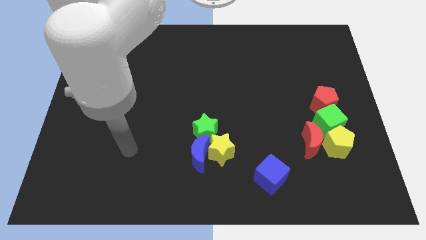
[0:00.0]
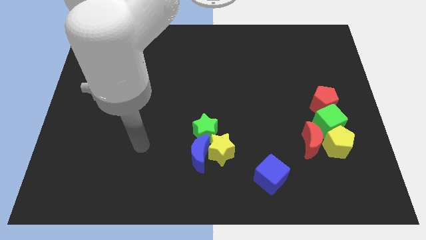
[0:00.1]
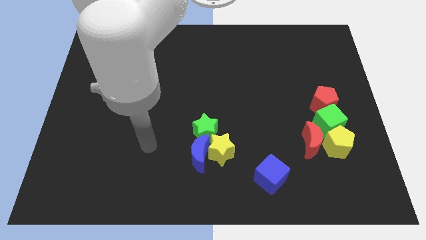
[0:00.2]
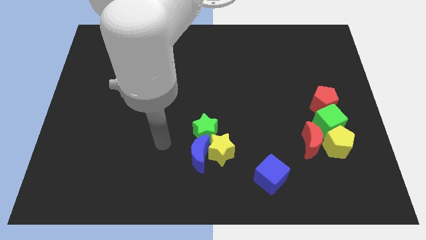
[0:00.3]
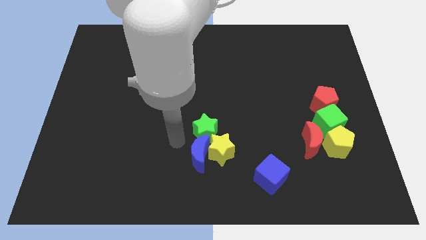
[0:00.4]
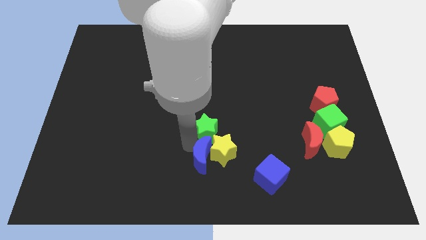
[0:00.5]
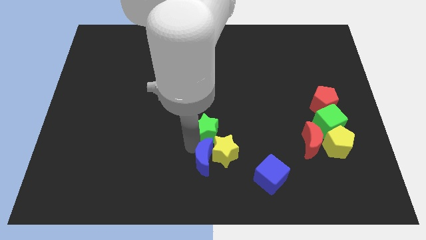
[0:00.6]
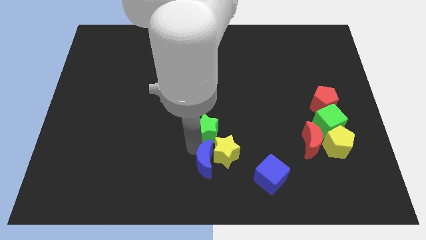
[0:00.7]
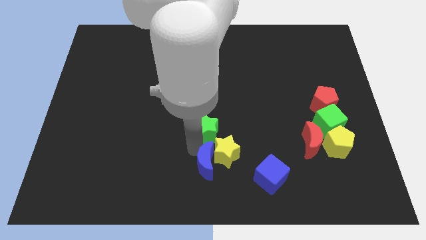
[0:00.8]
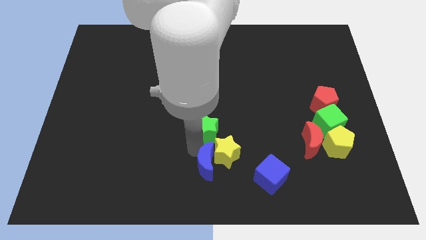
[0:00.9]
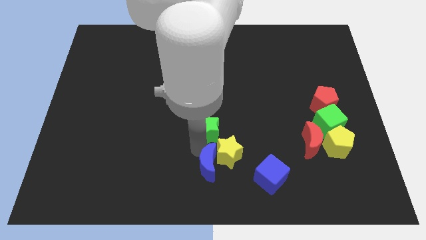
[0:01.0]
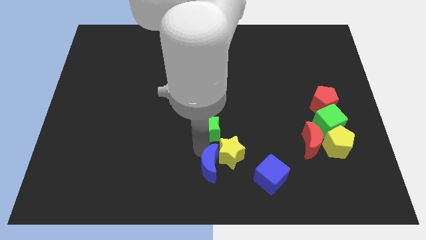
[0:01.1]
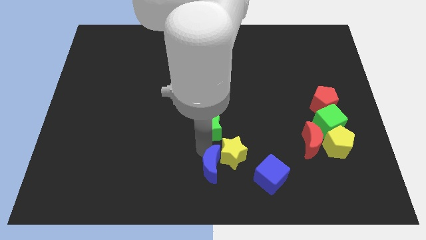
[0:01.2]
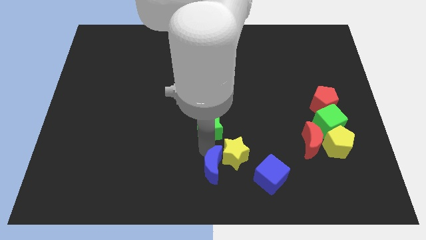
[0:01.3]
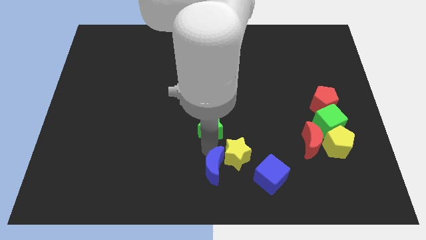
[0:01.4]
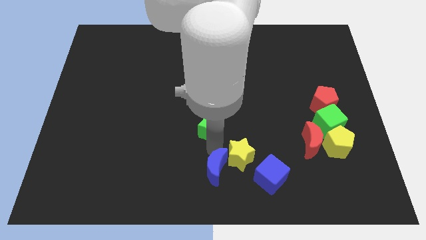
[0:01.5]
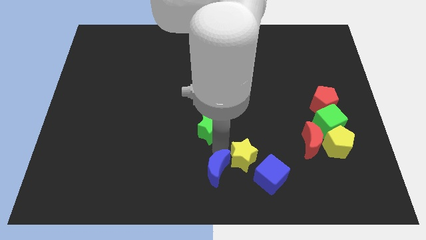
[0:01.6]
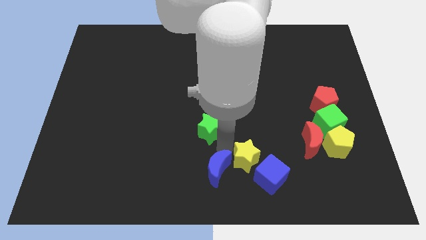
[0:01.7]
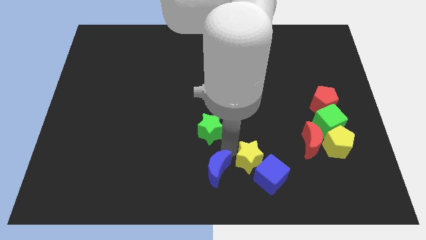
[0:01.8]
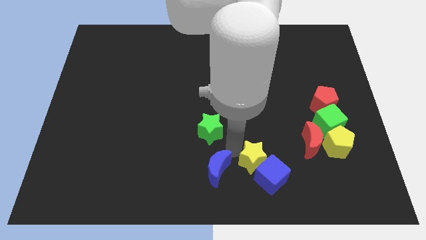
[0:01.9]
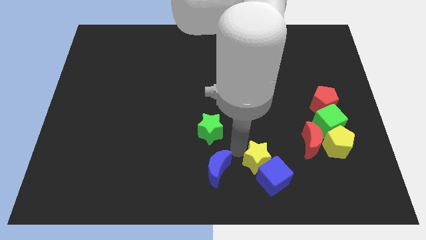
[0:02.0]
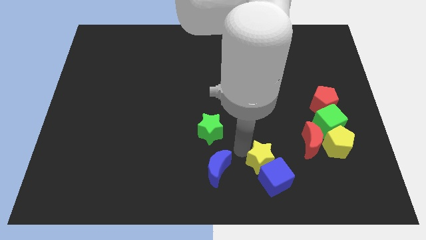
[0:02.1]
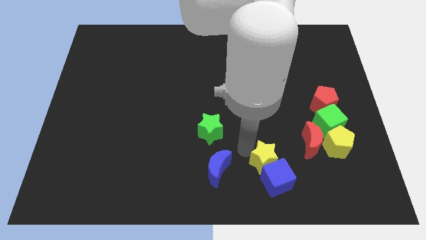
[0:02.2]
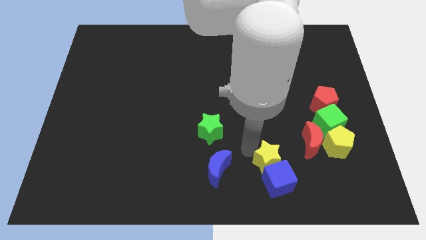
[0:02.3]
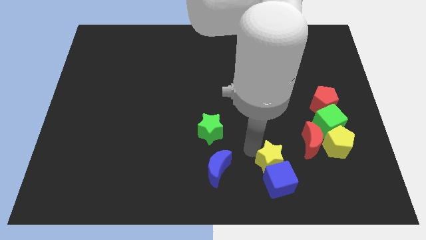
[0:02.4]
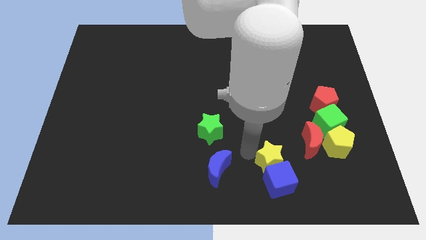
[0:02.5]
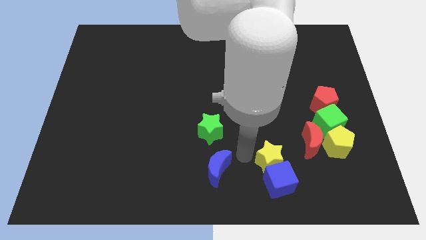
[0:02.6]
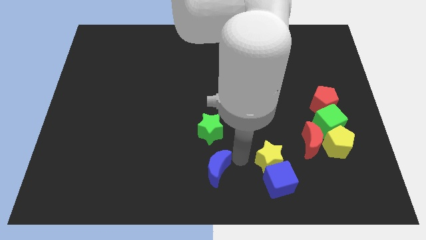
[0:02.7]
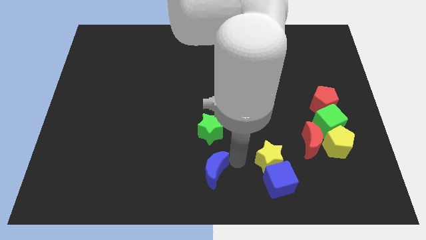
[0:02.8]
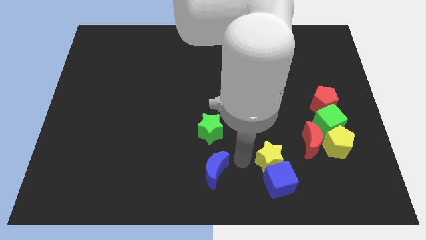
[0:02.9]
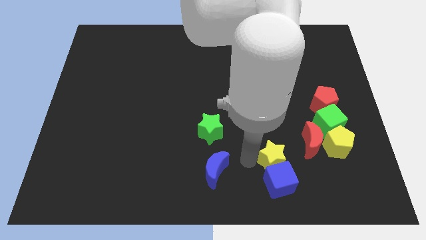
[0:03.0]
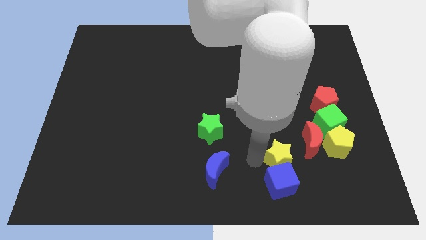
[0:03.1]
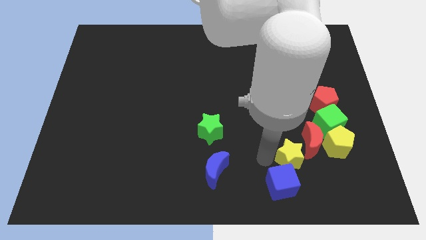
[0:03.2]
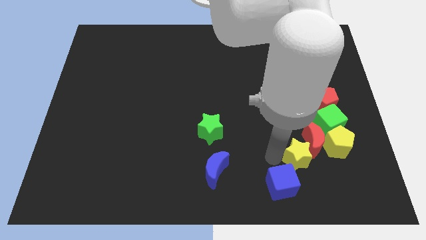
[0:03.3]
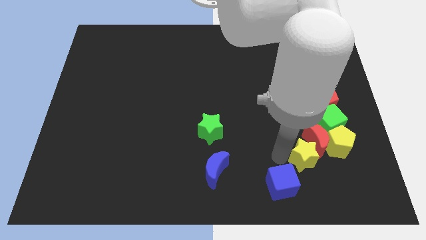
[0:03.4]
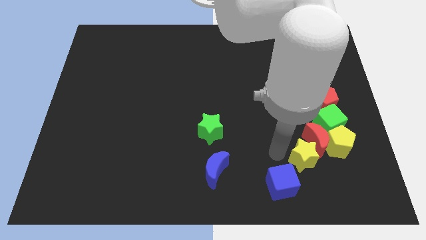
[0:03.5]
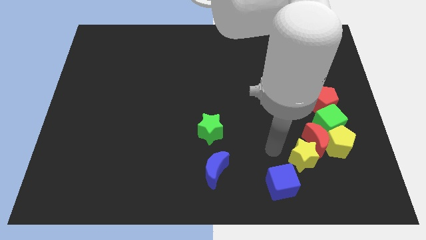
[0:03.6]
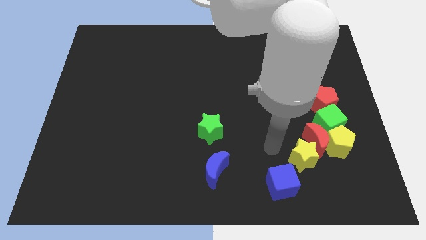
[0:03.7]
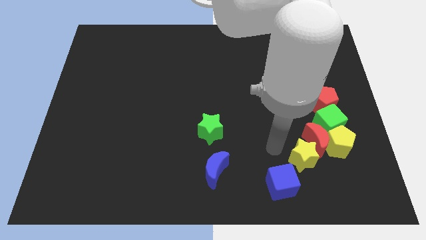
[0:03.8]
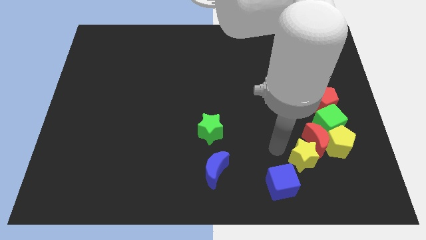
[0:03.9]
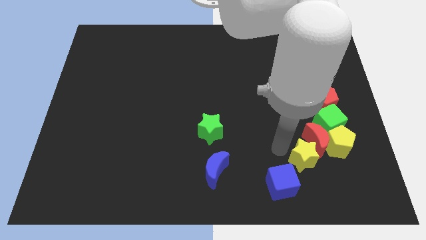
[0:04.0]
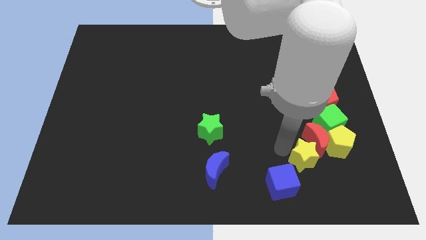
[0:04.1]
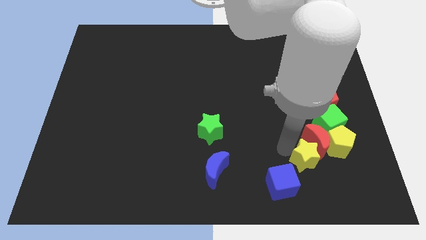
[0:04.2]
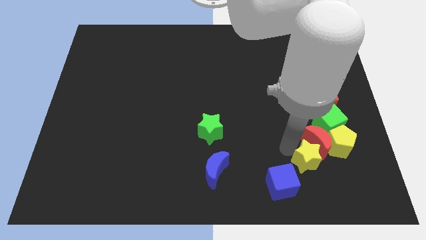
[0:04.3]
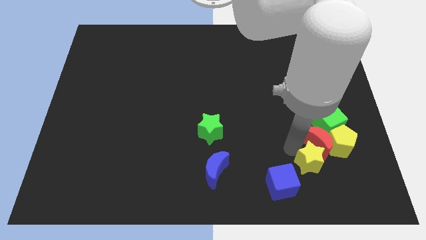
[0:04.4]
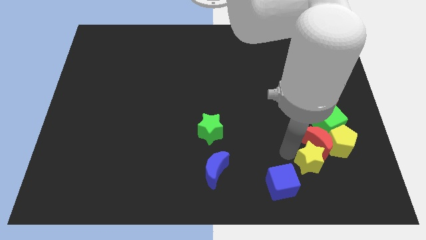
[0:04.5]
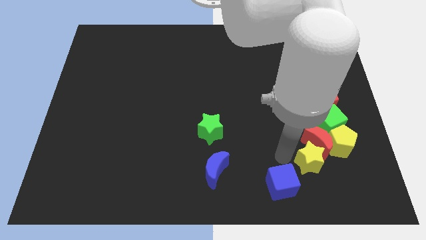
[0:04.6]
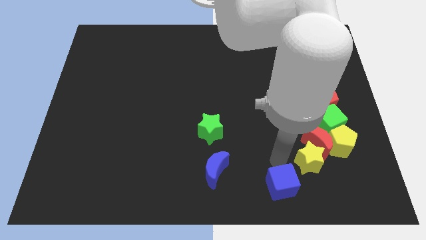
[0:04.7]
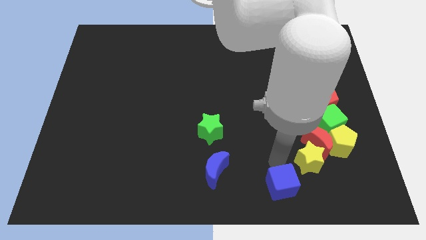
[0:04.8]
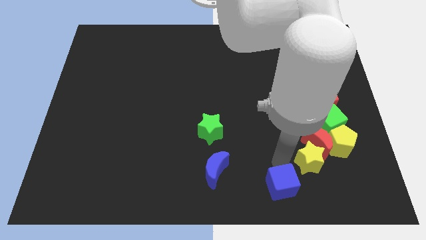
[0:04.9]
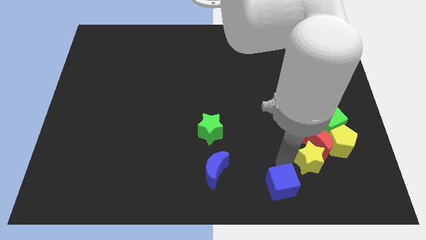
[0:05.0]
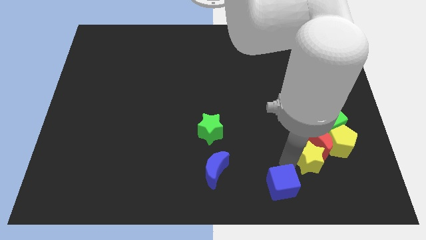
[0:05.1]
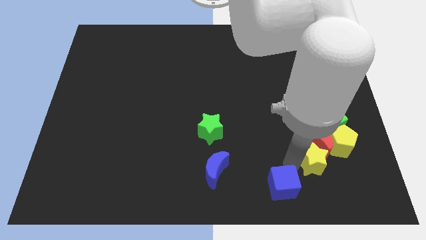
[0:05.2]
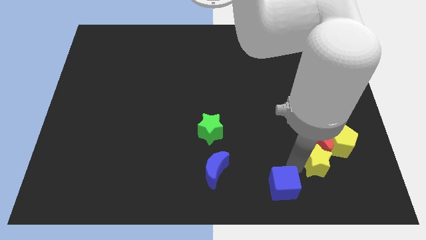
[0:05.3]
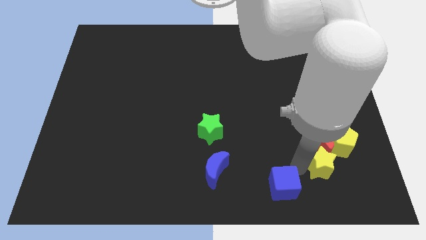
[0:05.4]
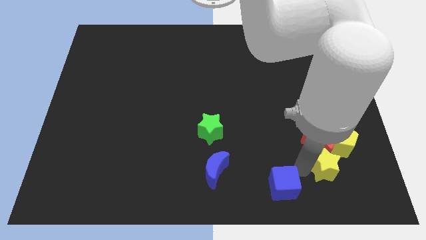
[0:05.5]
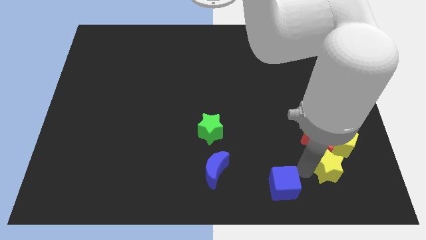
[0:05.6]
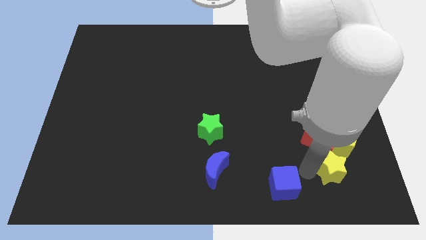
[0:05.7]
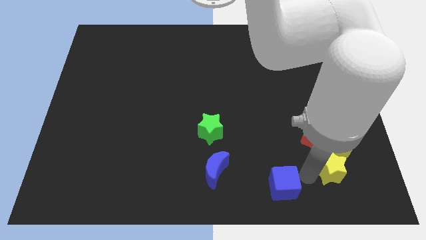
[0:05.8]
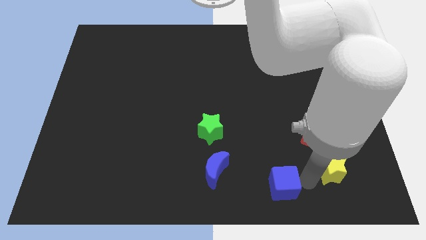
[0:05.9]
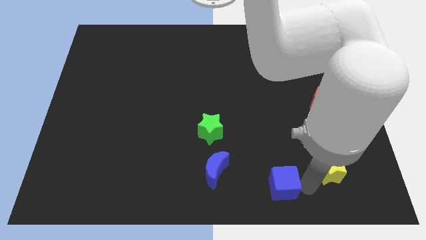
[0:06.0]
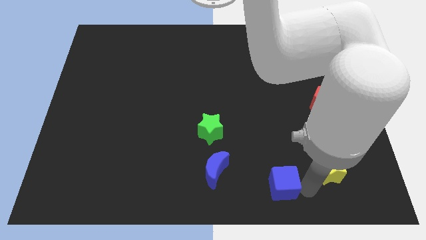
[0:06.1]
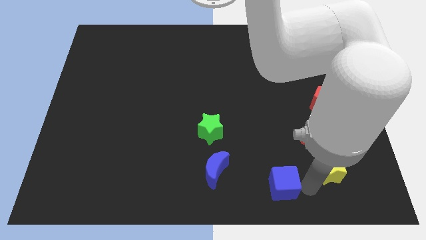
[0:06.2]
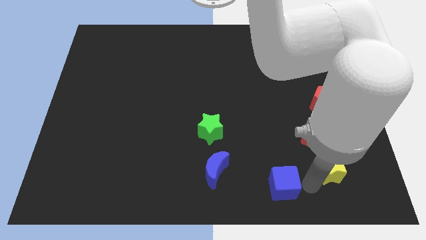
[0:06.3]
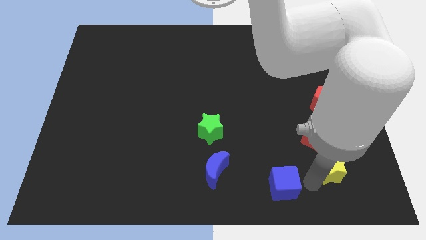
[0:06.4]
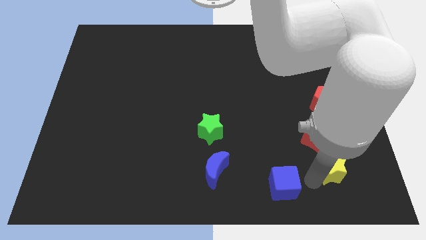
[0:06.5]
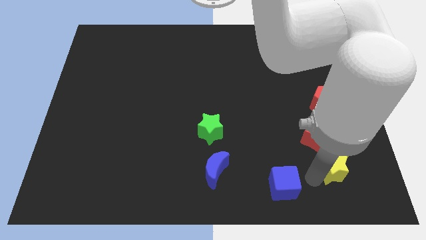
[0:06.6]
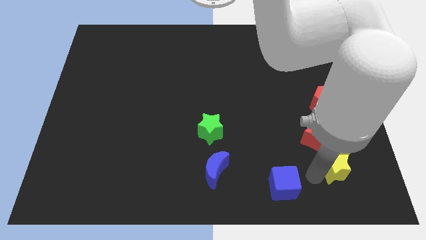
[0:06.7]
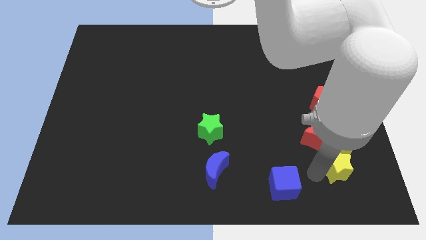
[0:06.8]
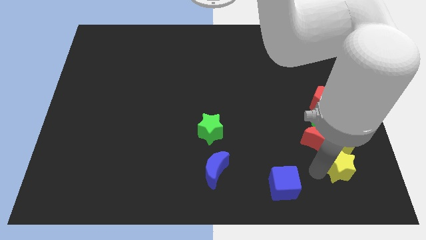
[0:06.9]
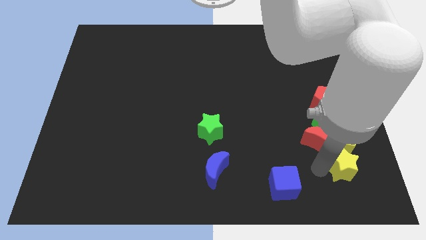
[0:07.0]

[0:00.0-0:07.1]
slide the yellow star close to the yellow pentagon
